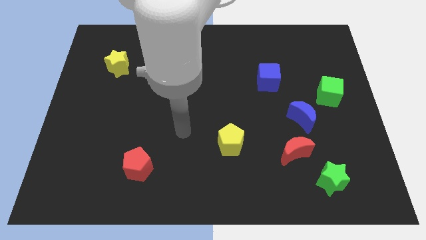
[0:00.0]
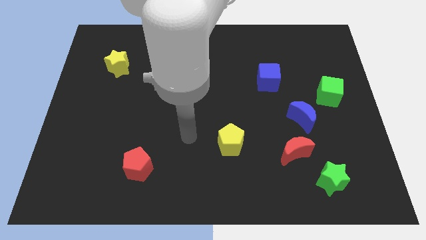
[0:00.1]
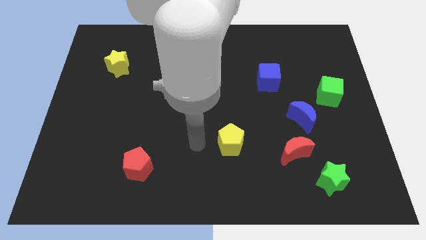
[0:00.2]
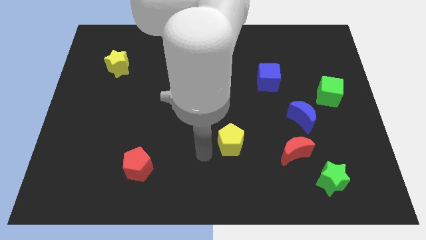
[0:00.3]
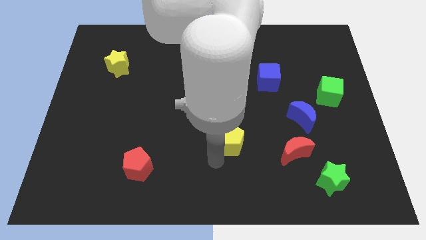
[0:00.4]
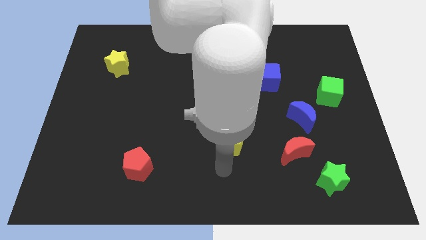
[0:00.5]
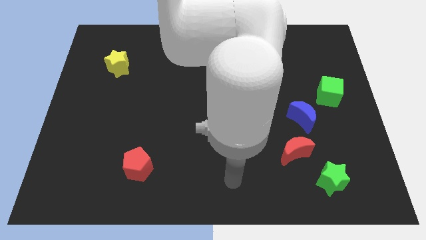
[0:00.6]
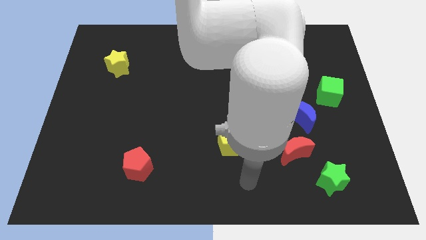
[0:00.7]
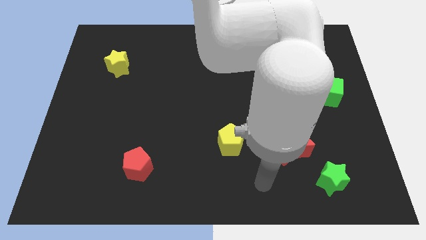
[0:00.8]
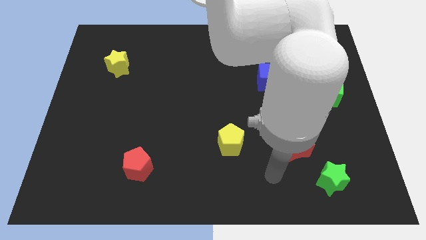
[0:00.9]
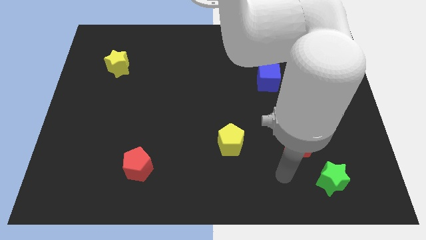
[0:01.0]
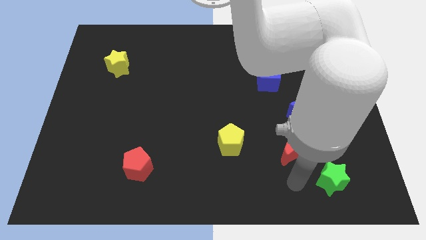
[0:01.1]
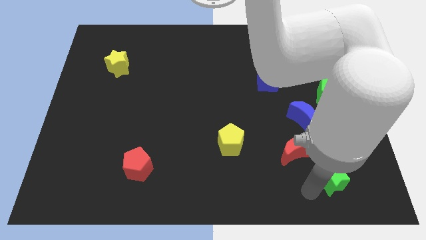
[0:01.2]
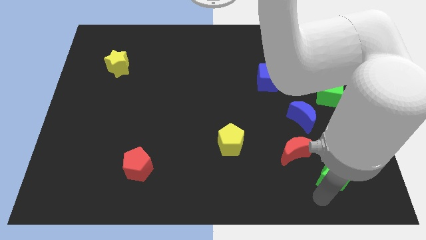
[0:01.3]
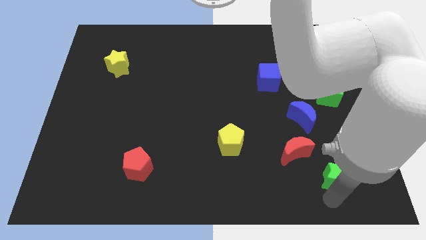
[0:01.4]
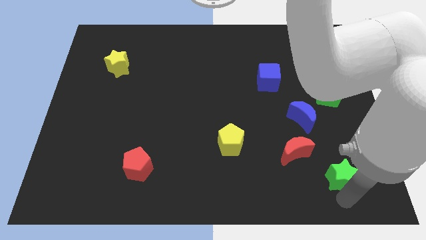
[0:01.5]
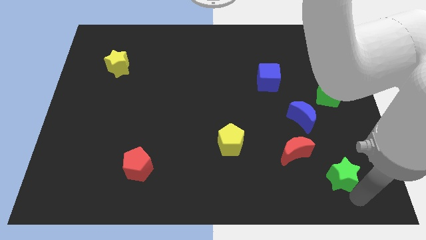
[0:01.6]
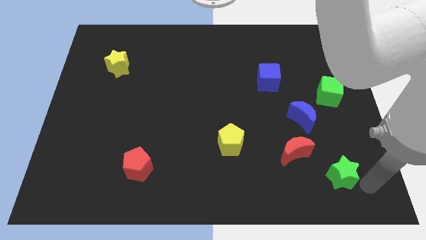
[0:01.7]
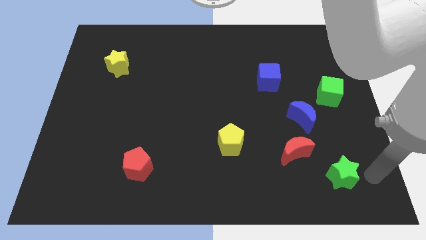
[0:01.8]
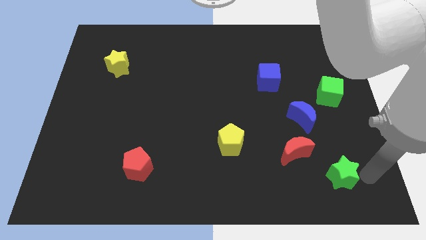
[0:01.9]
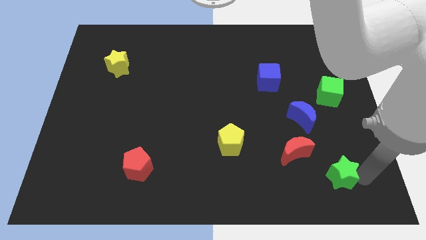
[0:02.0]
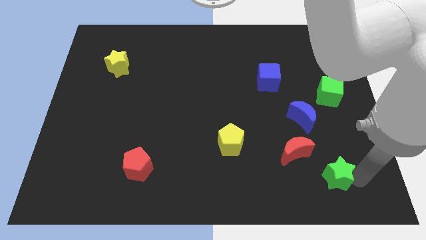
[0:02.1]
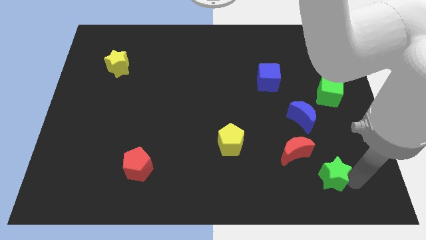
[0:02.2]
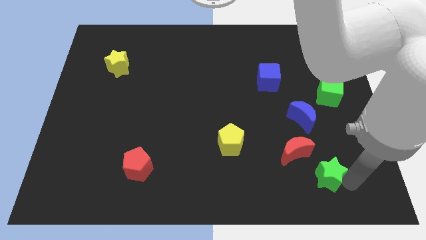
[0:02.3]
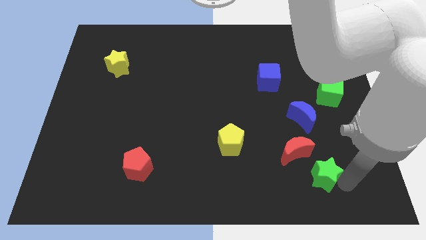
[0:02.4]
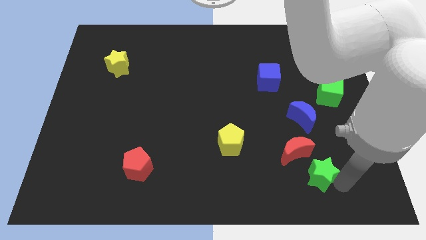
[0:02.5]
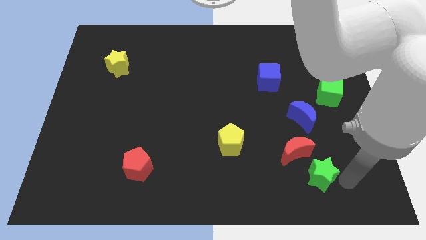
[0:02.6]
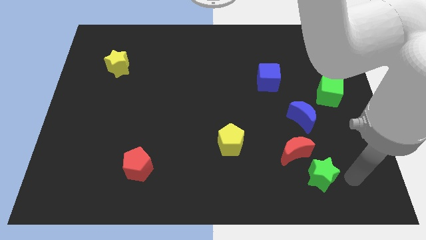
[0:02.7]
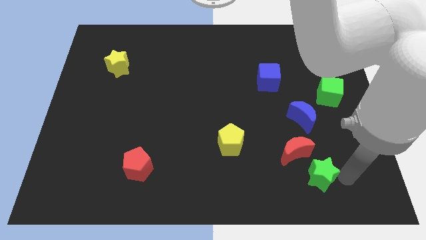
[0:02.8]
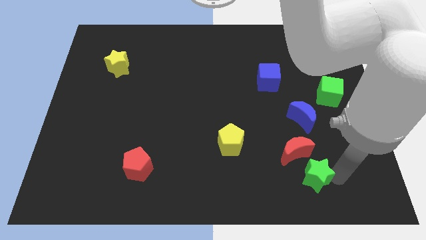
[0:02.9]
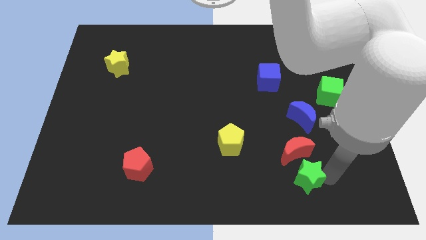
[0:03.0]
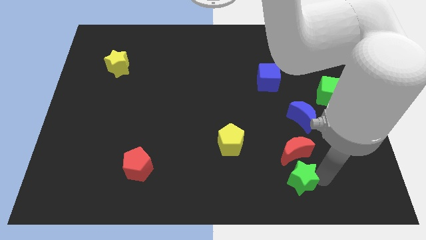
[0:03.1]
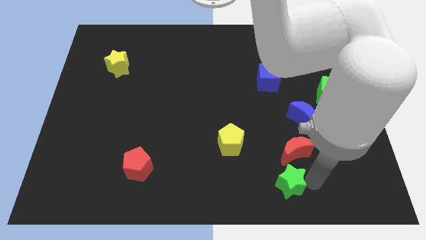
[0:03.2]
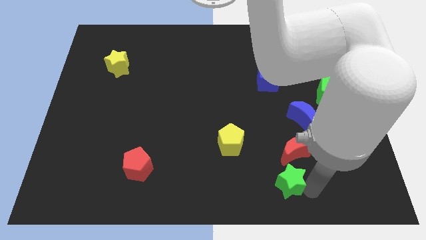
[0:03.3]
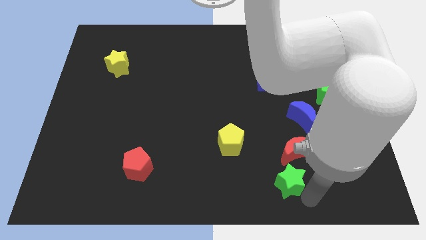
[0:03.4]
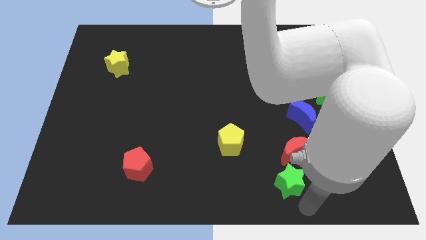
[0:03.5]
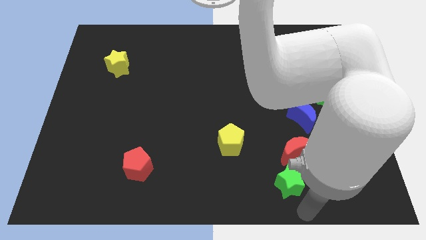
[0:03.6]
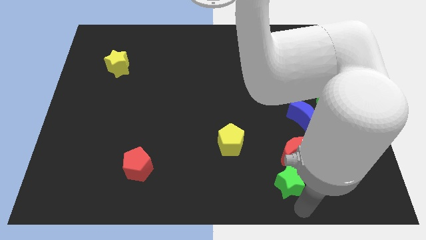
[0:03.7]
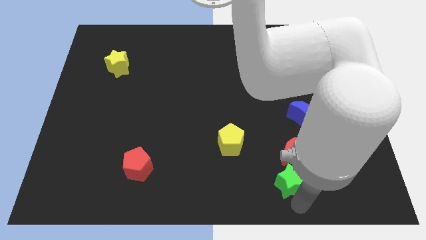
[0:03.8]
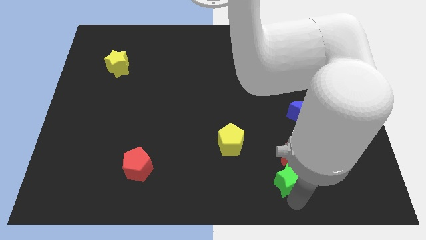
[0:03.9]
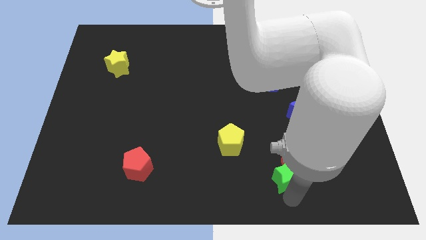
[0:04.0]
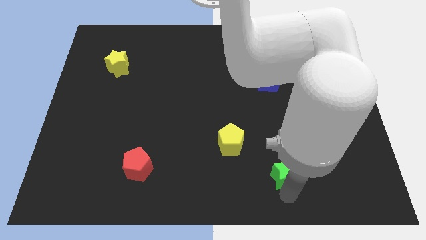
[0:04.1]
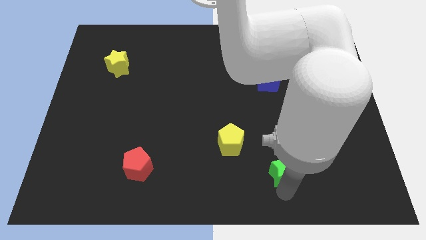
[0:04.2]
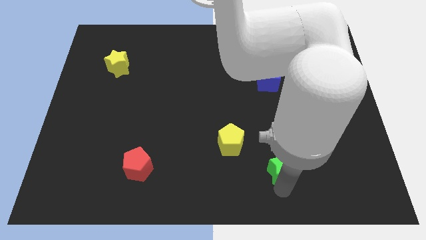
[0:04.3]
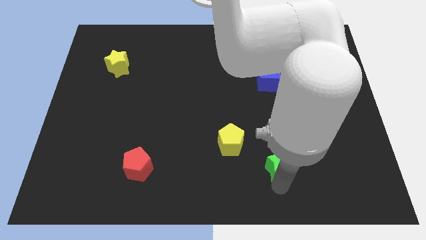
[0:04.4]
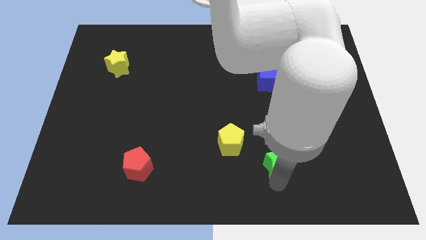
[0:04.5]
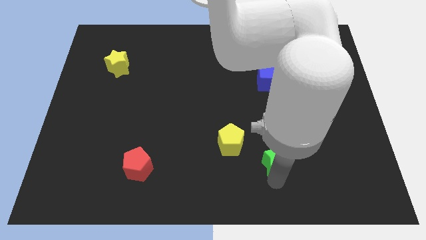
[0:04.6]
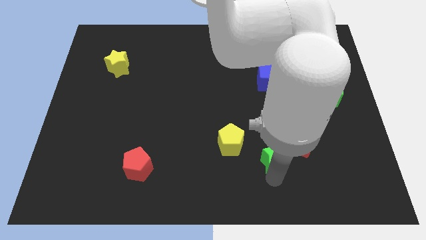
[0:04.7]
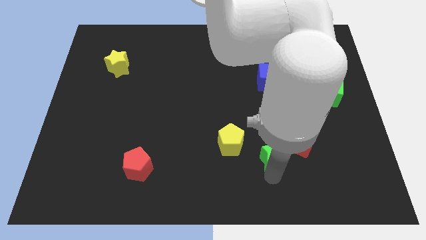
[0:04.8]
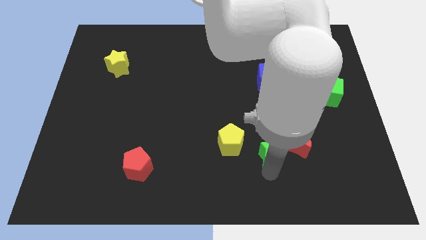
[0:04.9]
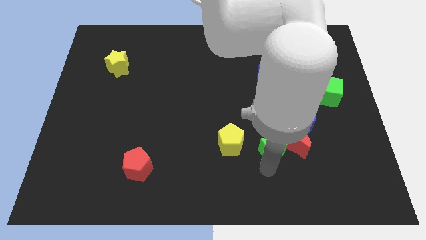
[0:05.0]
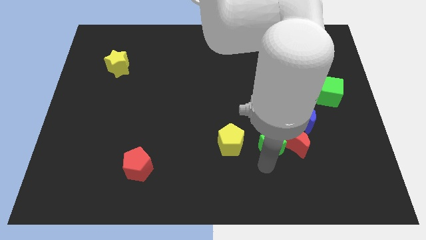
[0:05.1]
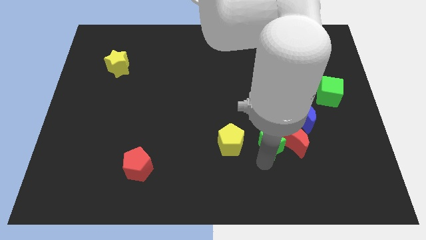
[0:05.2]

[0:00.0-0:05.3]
push the green star diagonally up and to the left of the red moon
